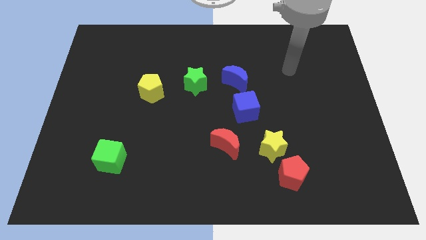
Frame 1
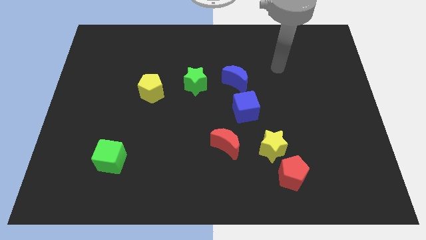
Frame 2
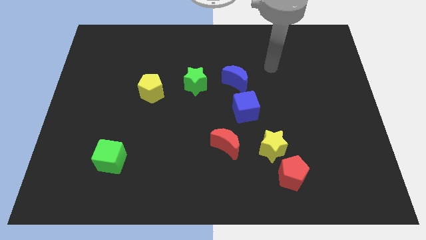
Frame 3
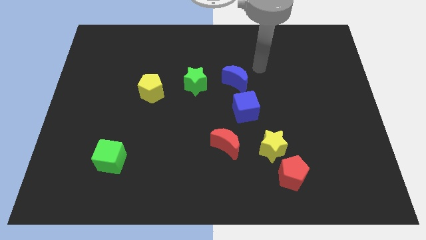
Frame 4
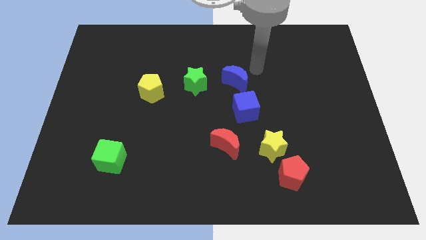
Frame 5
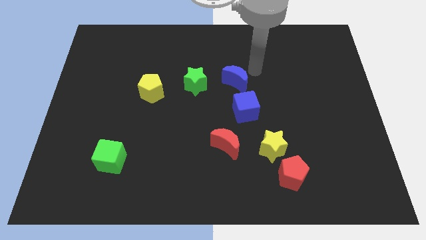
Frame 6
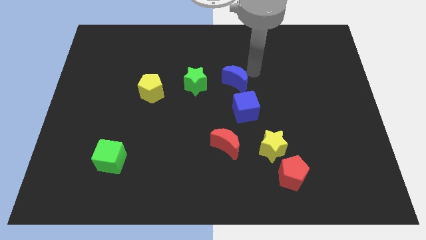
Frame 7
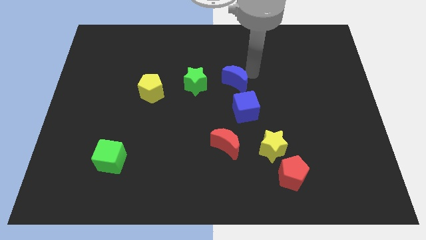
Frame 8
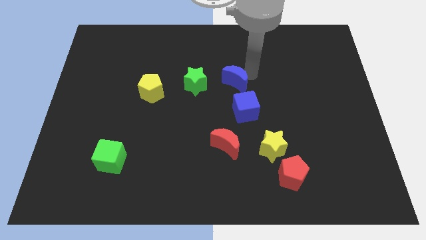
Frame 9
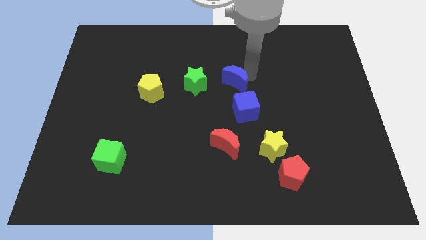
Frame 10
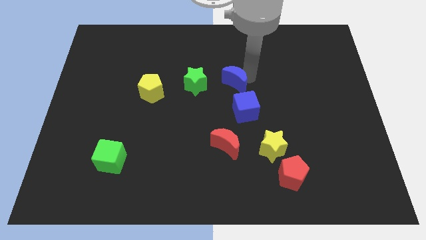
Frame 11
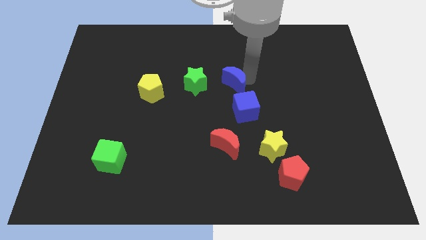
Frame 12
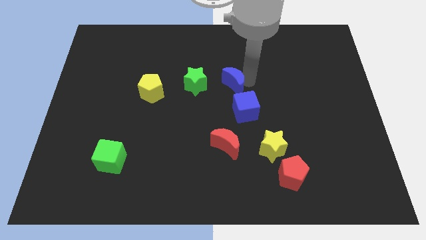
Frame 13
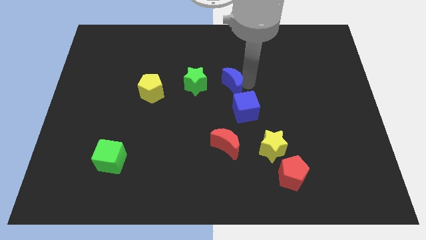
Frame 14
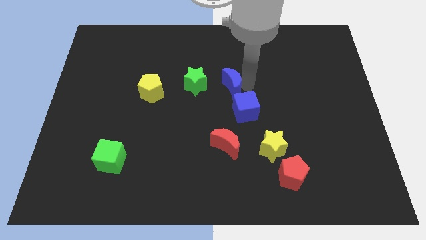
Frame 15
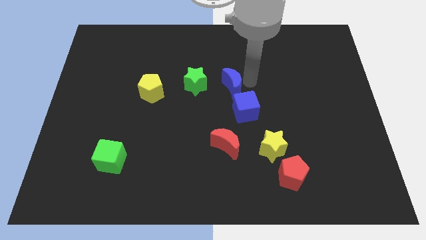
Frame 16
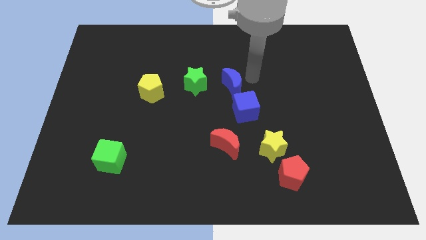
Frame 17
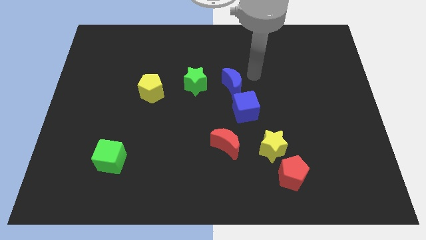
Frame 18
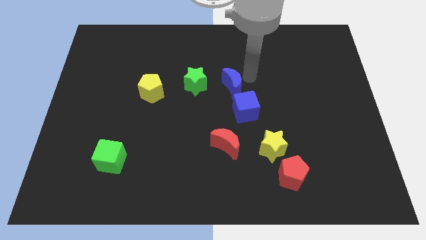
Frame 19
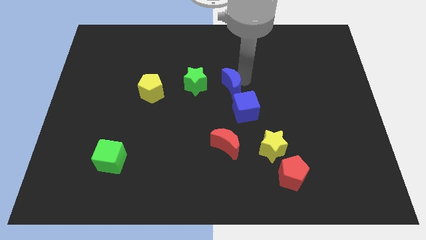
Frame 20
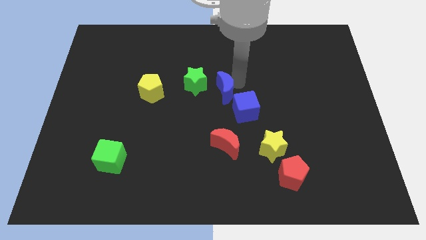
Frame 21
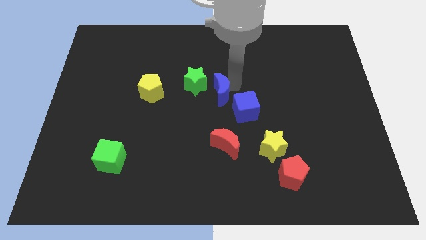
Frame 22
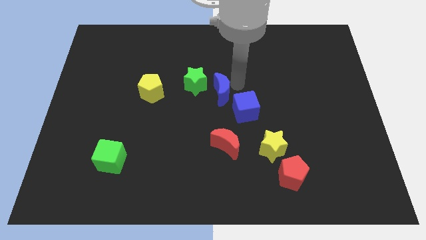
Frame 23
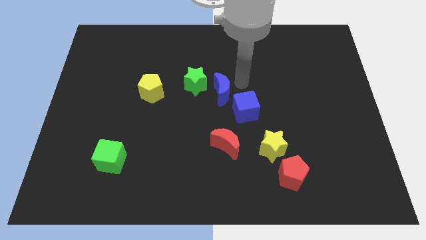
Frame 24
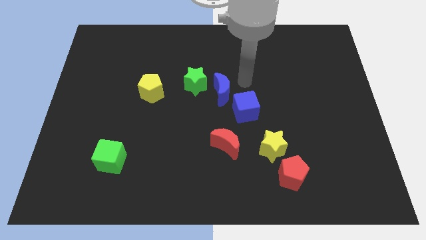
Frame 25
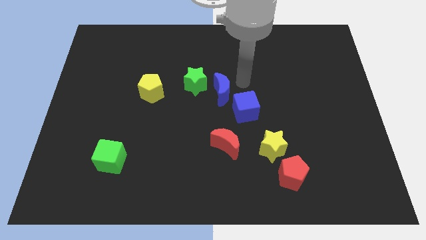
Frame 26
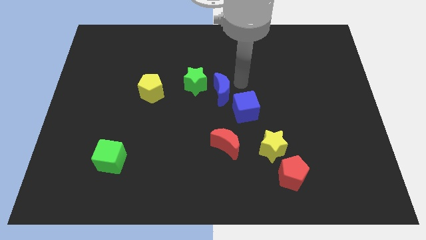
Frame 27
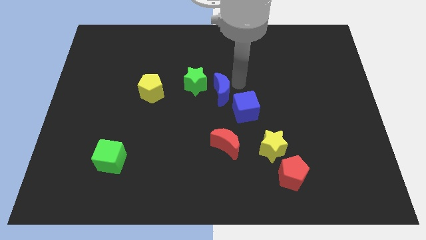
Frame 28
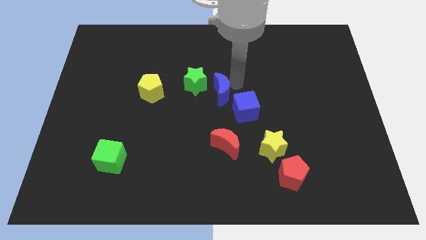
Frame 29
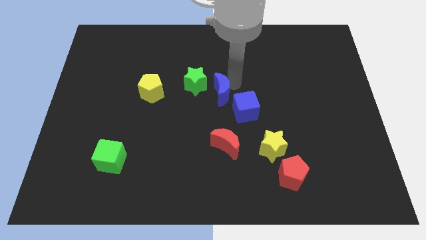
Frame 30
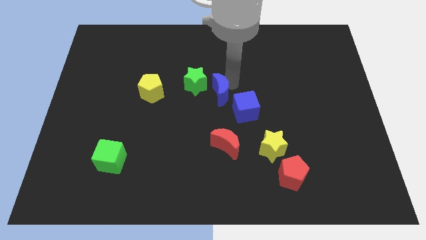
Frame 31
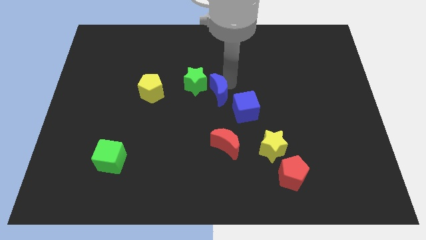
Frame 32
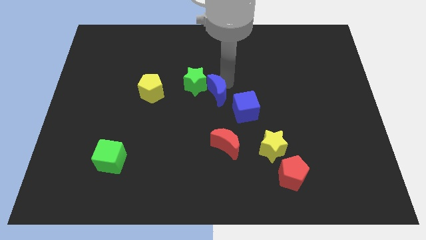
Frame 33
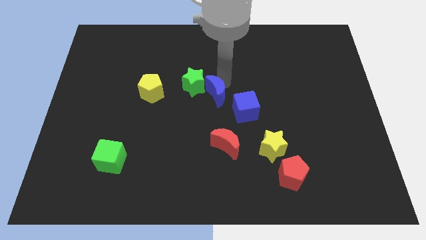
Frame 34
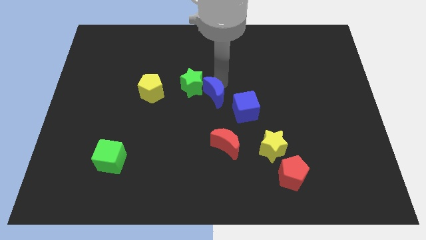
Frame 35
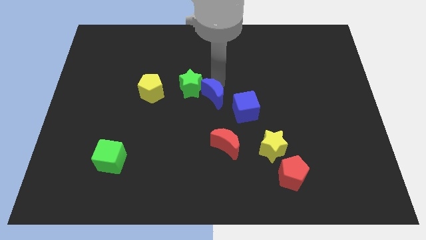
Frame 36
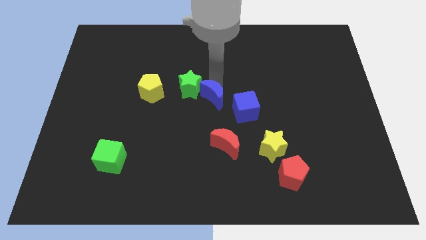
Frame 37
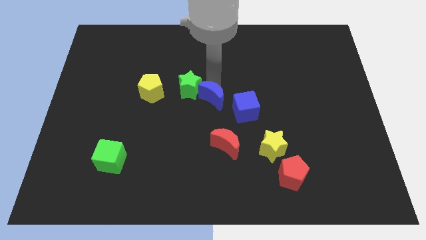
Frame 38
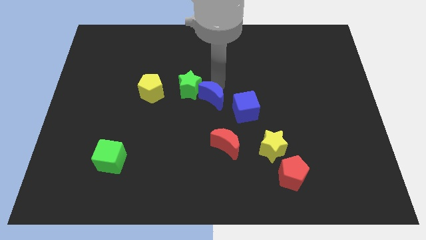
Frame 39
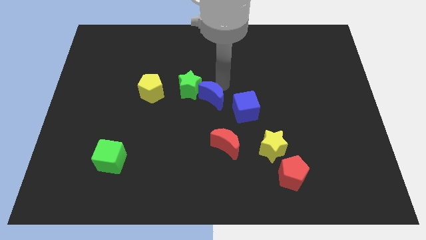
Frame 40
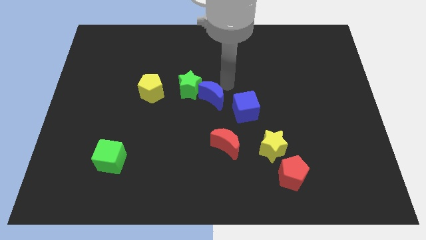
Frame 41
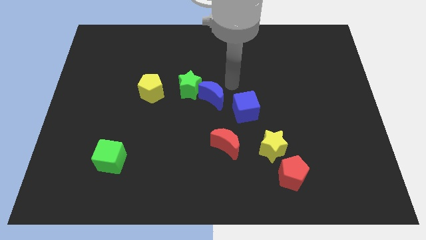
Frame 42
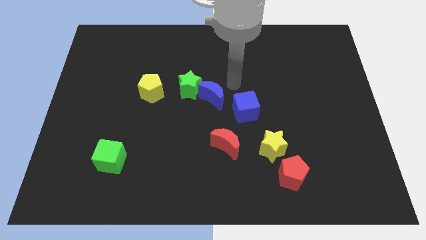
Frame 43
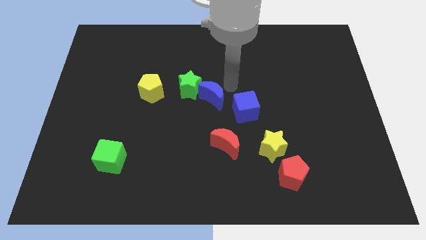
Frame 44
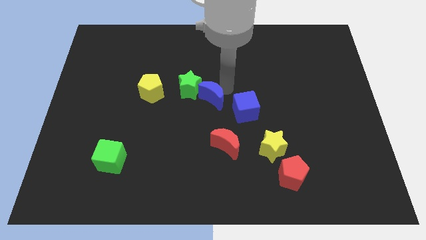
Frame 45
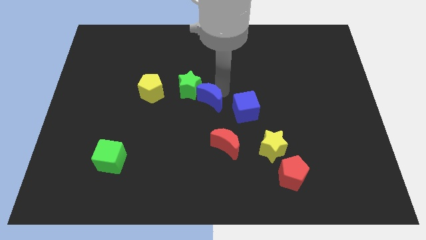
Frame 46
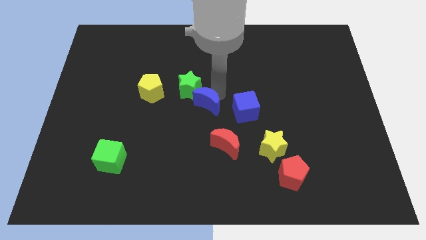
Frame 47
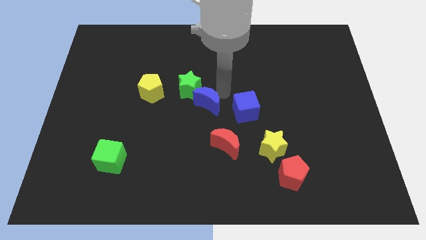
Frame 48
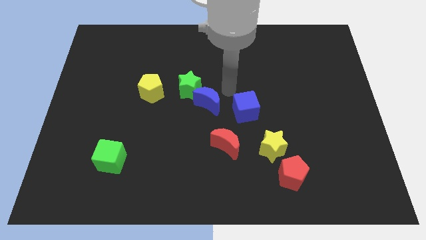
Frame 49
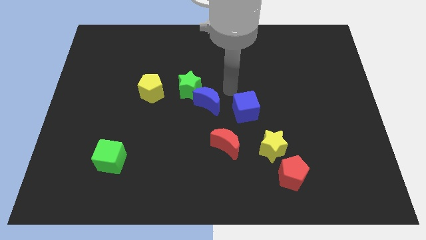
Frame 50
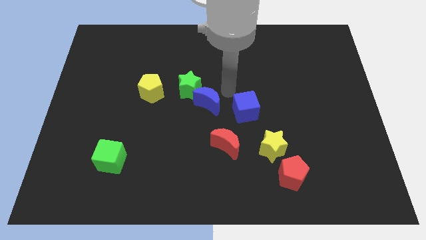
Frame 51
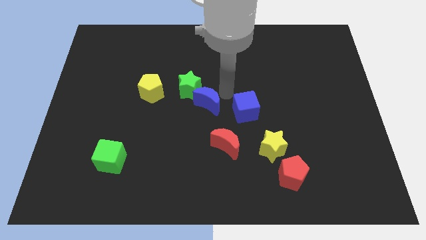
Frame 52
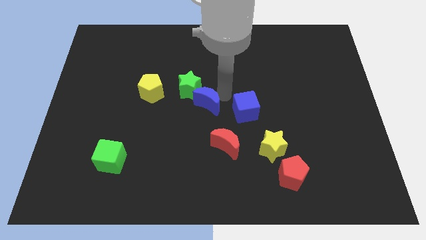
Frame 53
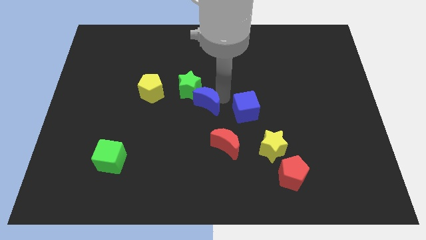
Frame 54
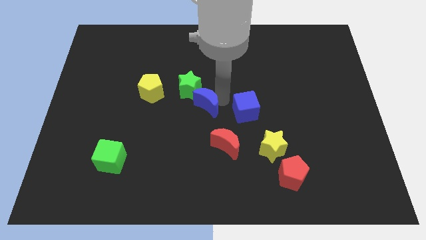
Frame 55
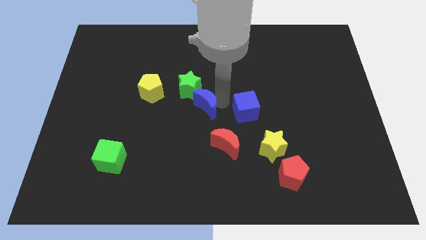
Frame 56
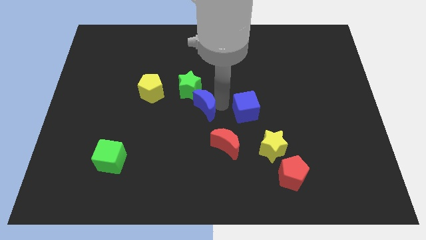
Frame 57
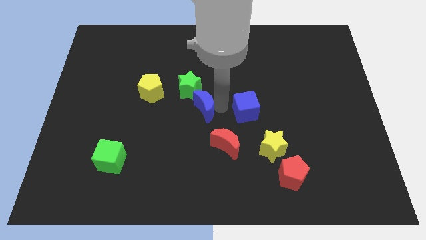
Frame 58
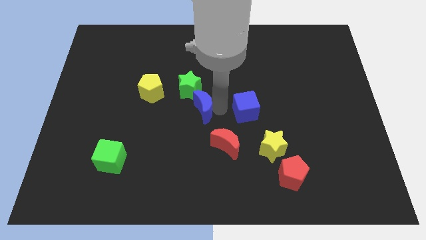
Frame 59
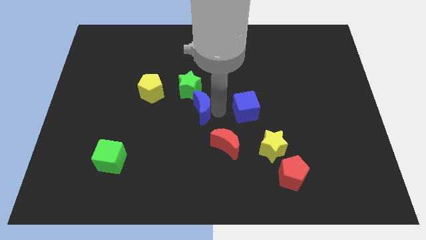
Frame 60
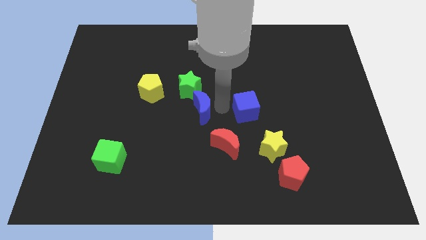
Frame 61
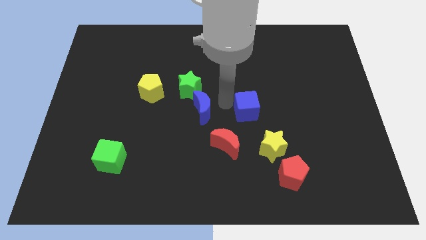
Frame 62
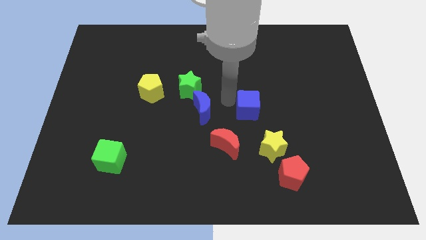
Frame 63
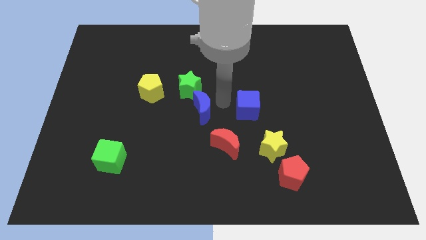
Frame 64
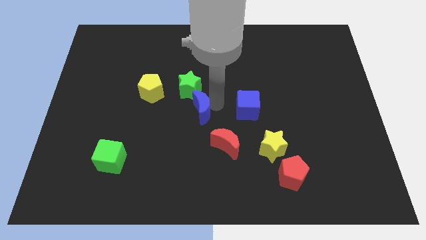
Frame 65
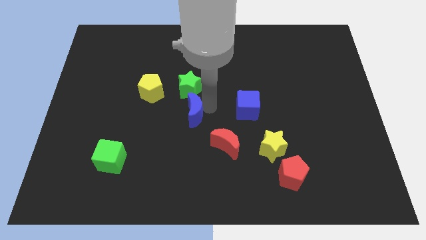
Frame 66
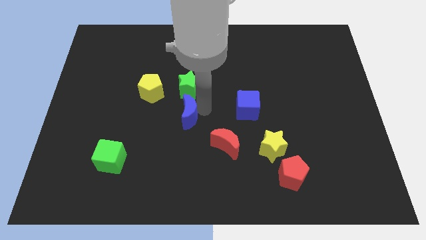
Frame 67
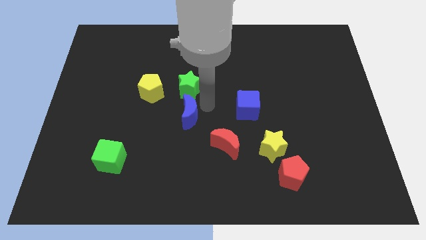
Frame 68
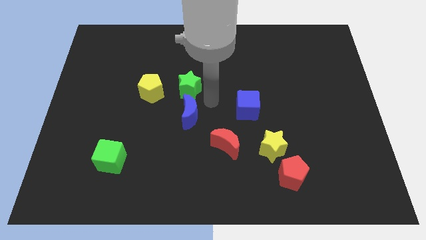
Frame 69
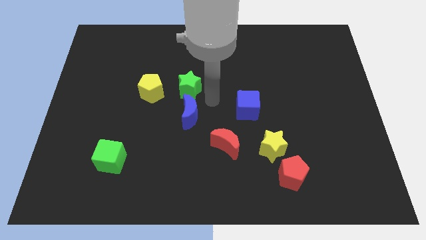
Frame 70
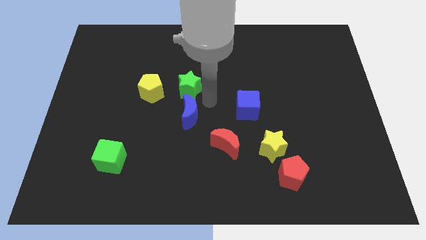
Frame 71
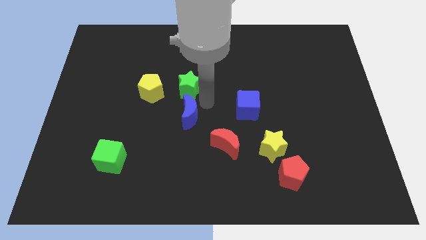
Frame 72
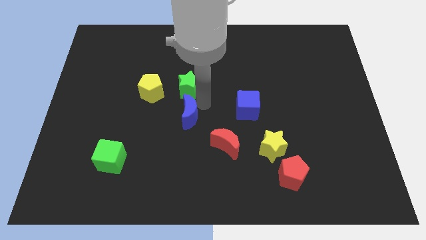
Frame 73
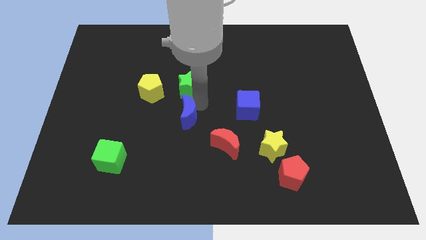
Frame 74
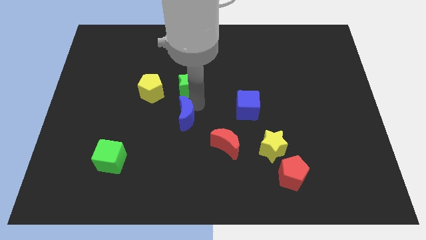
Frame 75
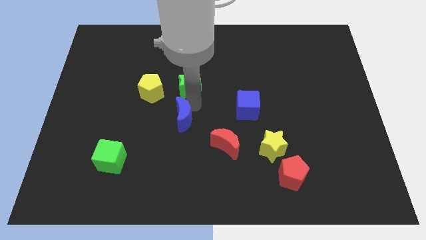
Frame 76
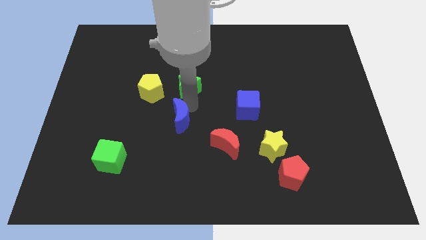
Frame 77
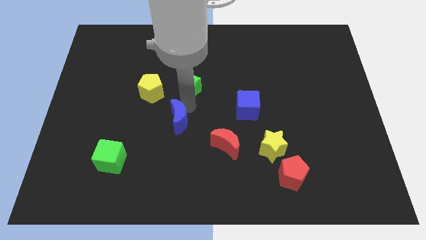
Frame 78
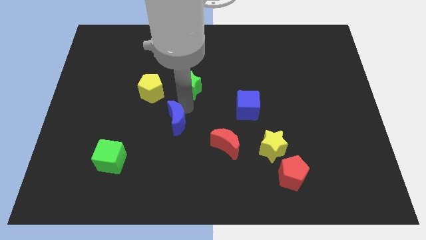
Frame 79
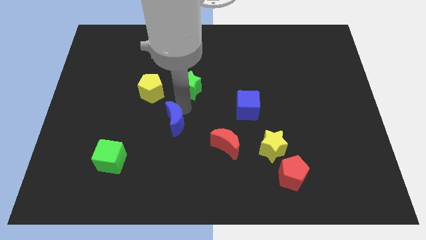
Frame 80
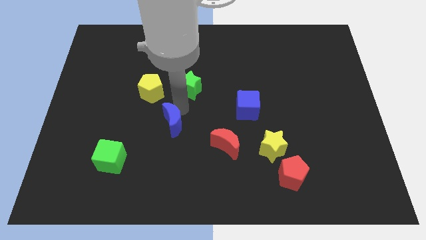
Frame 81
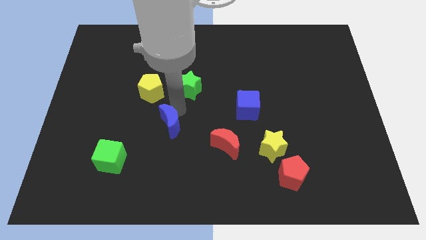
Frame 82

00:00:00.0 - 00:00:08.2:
slide the blue moon diagonally down and to the left

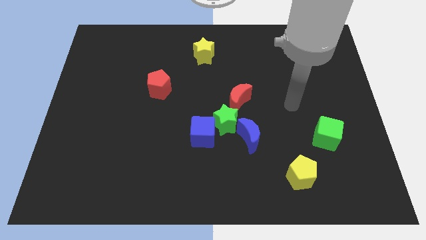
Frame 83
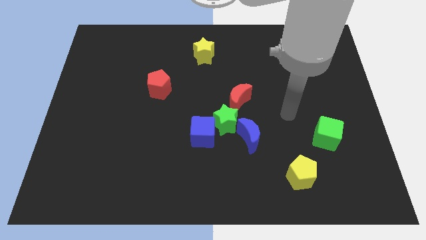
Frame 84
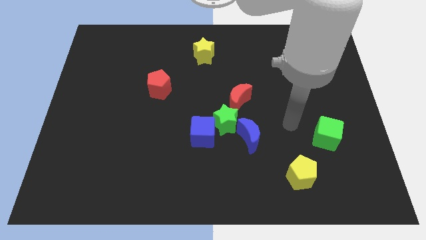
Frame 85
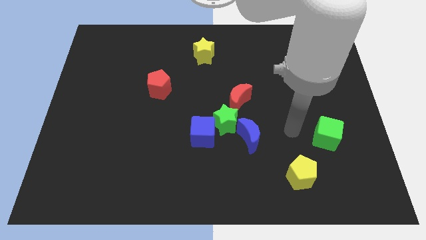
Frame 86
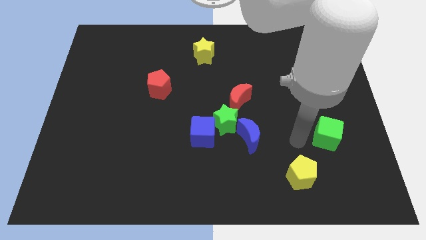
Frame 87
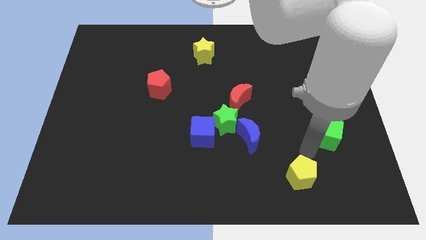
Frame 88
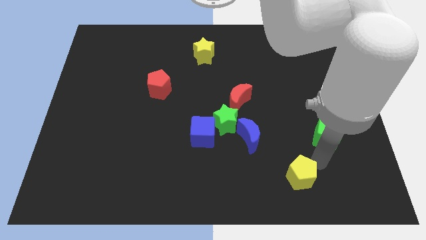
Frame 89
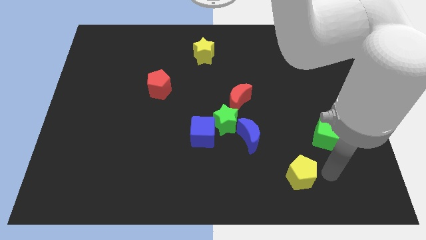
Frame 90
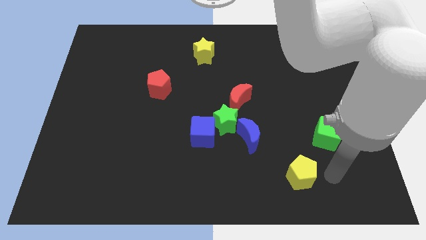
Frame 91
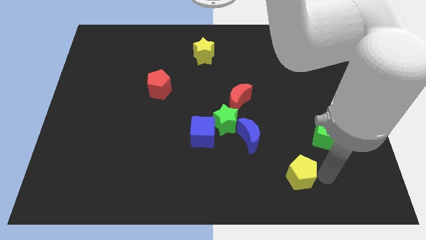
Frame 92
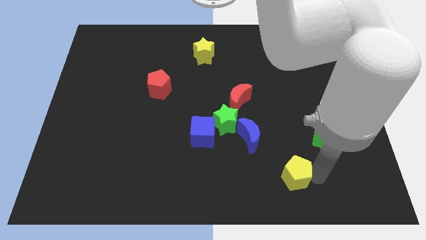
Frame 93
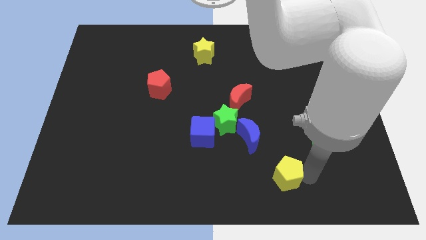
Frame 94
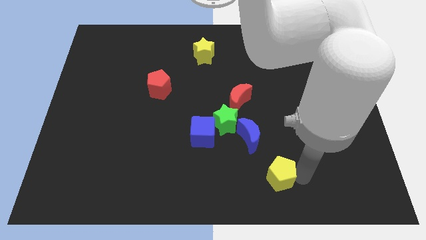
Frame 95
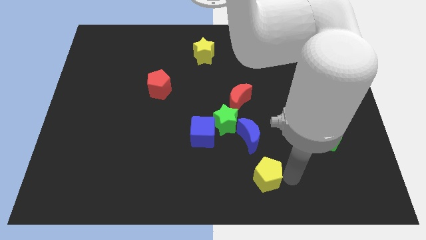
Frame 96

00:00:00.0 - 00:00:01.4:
slightly slide the yellow pentagon to the left
